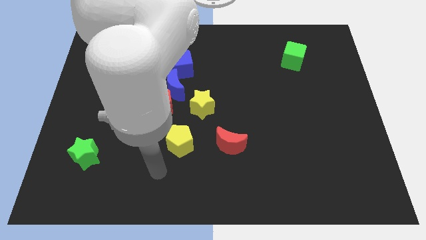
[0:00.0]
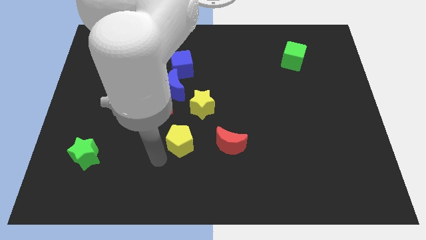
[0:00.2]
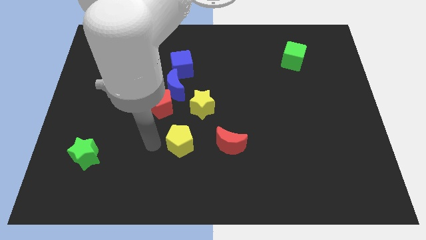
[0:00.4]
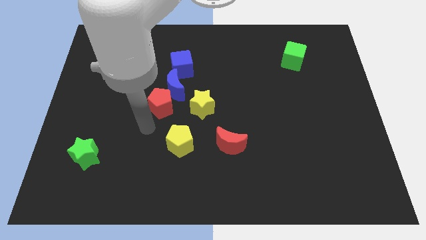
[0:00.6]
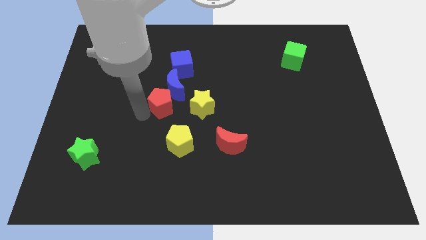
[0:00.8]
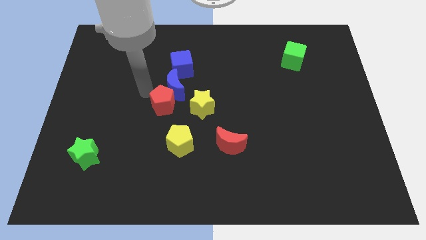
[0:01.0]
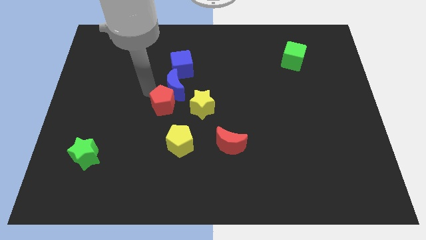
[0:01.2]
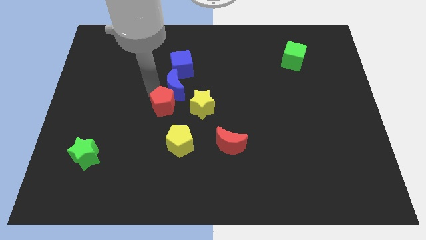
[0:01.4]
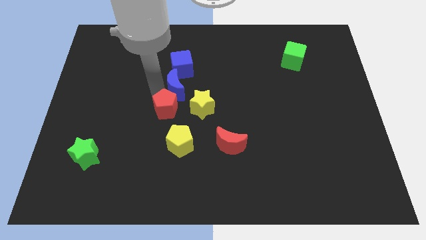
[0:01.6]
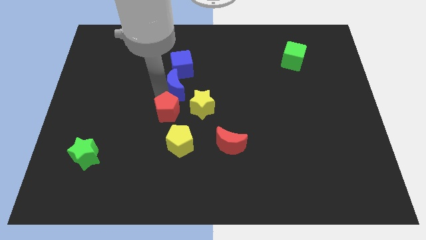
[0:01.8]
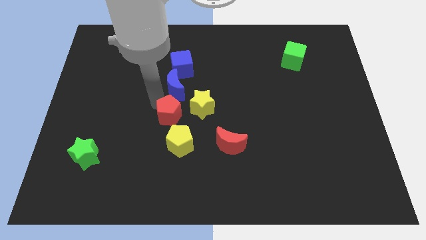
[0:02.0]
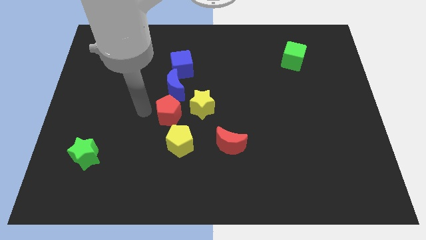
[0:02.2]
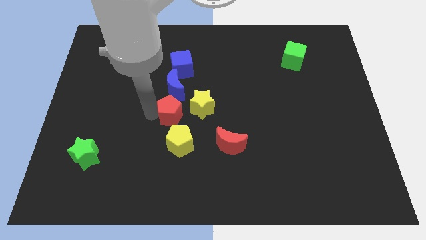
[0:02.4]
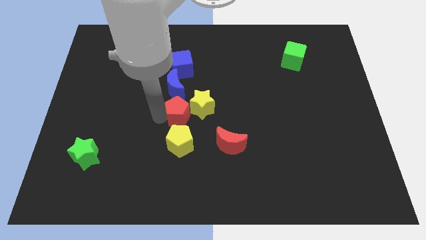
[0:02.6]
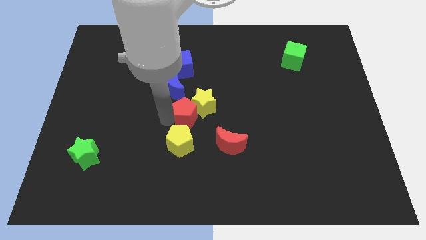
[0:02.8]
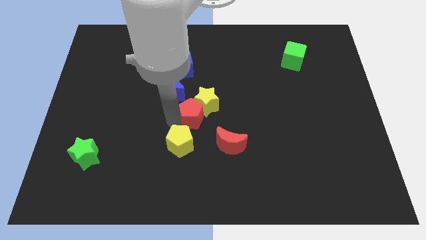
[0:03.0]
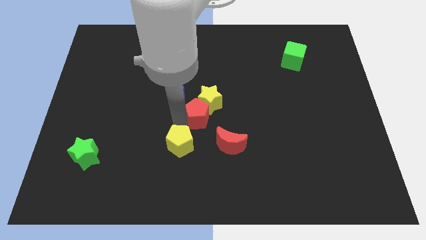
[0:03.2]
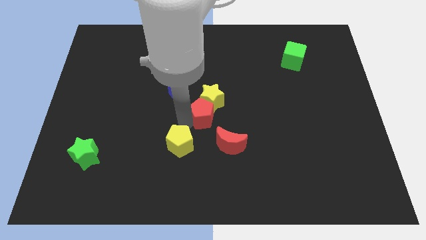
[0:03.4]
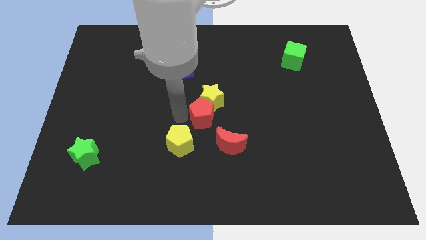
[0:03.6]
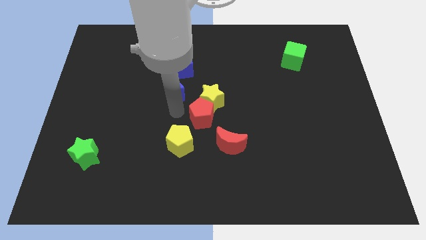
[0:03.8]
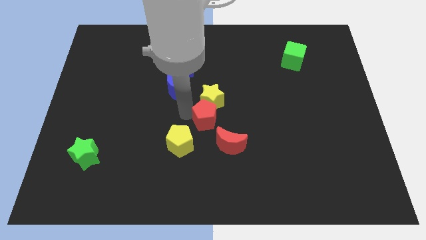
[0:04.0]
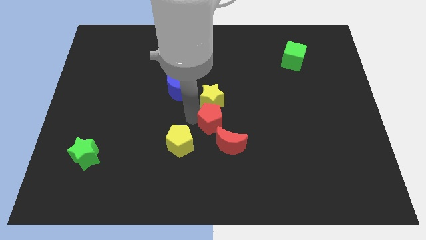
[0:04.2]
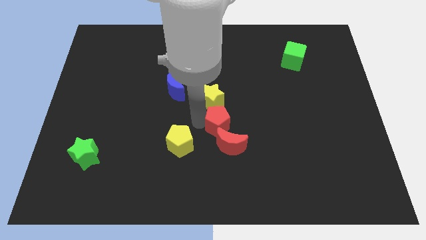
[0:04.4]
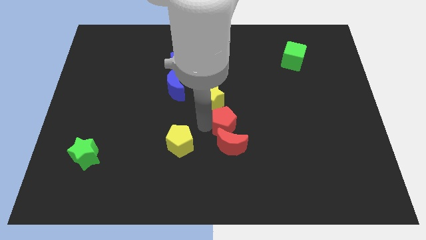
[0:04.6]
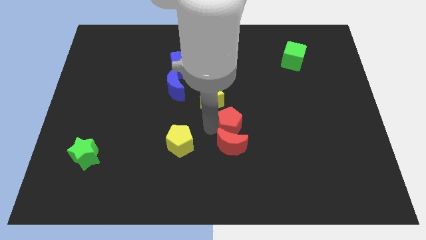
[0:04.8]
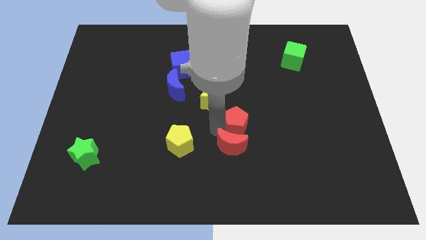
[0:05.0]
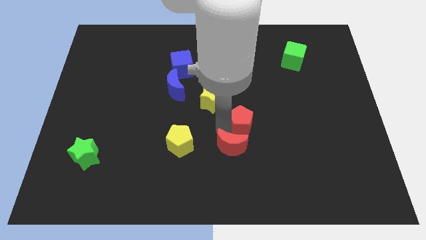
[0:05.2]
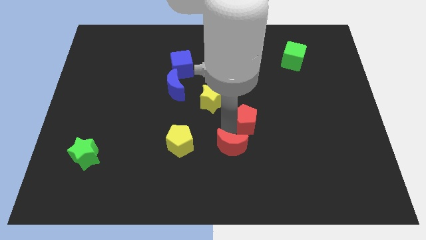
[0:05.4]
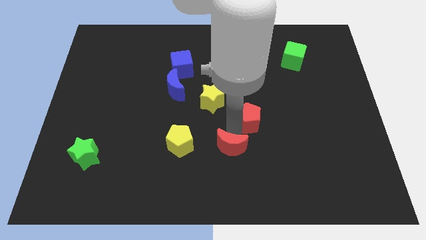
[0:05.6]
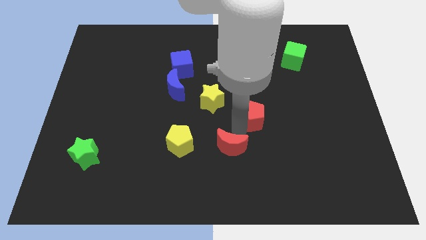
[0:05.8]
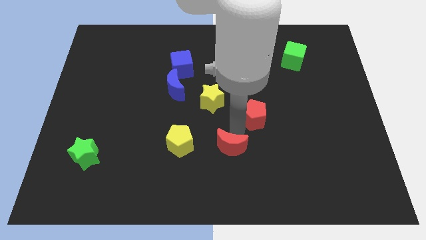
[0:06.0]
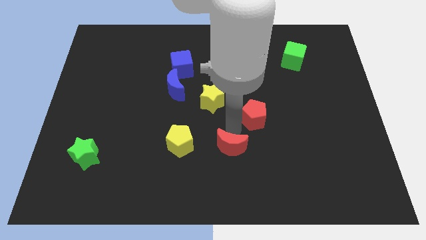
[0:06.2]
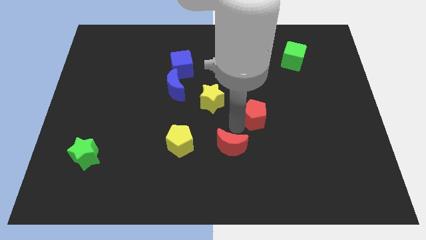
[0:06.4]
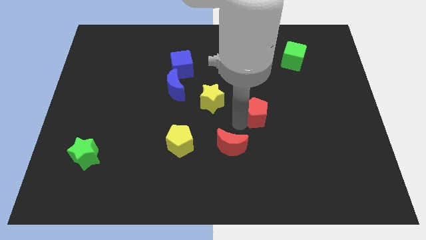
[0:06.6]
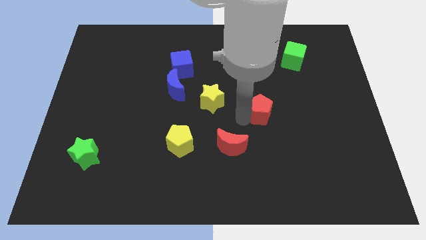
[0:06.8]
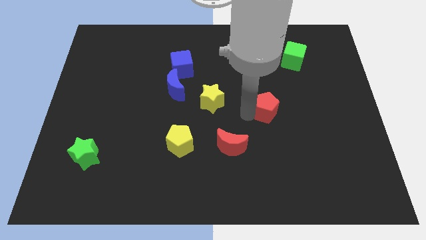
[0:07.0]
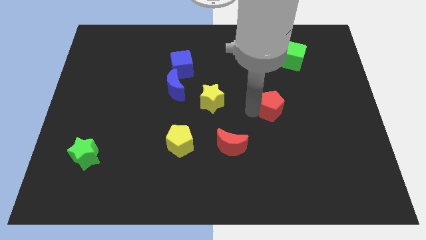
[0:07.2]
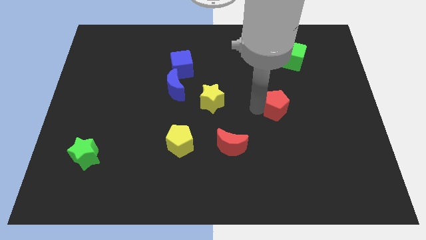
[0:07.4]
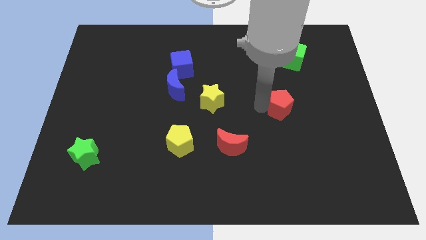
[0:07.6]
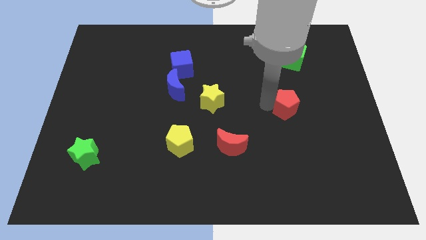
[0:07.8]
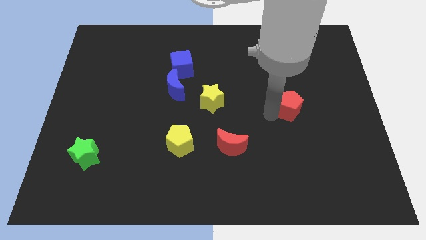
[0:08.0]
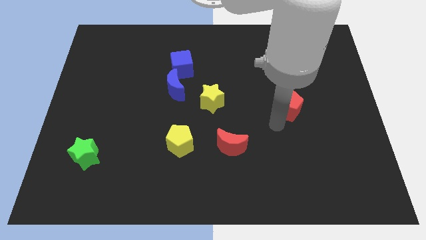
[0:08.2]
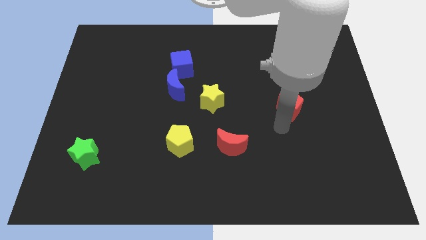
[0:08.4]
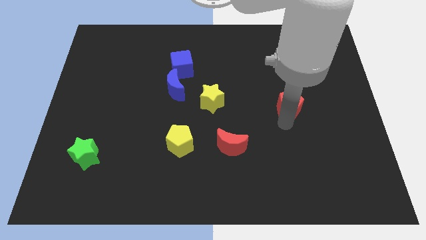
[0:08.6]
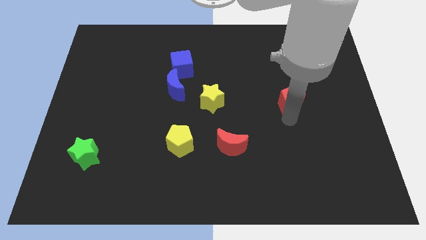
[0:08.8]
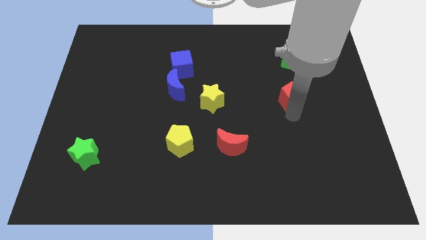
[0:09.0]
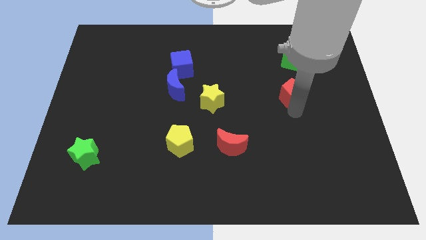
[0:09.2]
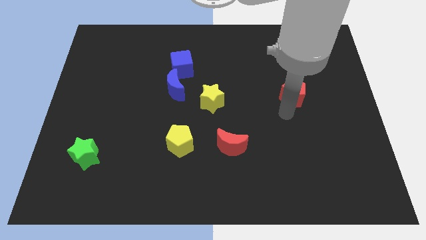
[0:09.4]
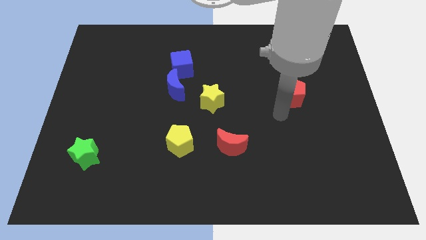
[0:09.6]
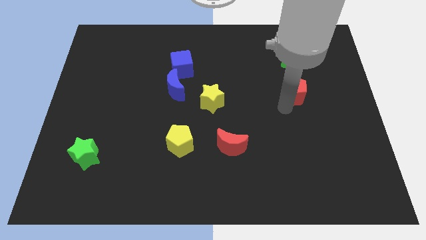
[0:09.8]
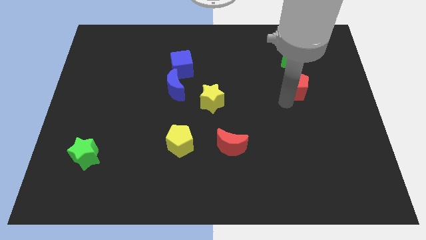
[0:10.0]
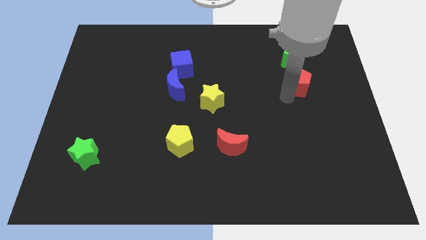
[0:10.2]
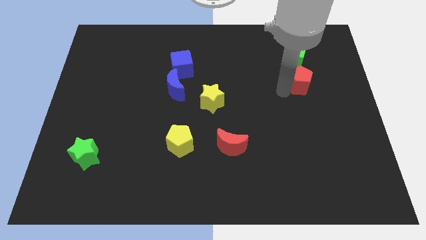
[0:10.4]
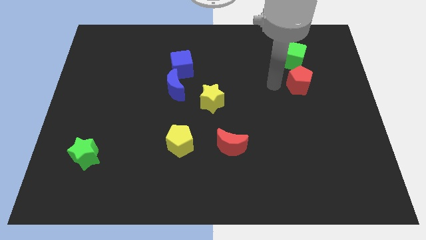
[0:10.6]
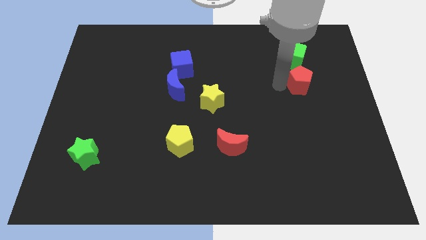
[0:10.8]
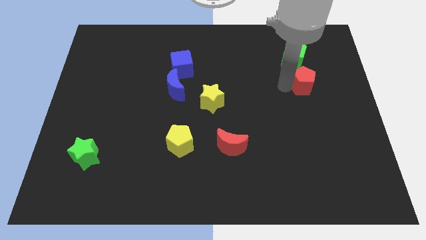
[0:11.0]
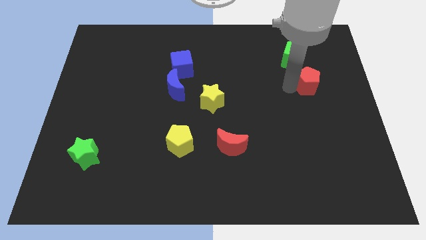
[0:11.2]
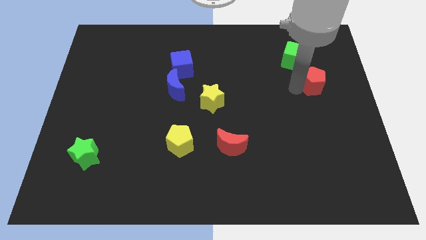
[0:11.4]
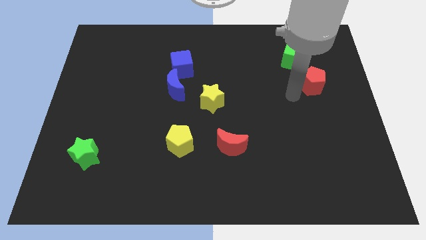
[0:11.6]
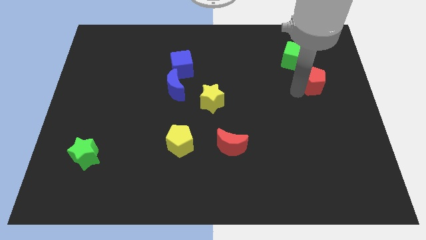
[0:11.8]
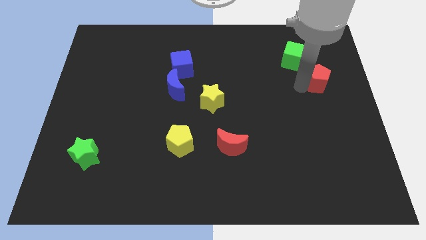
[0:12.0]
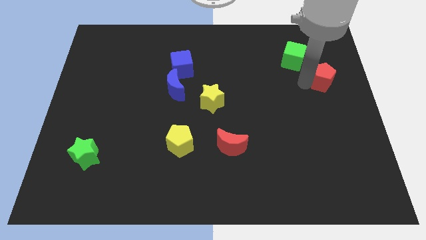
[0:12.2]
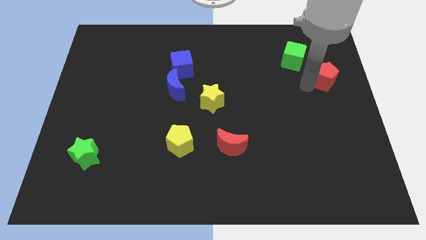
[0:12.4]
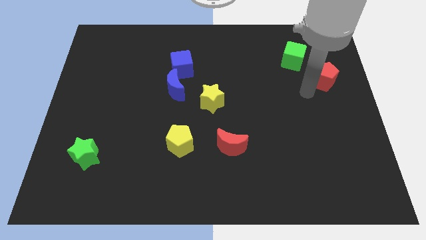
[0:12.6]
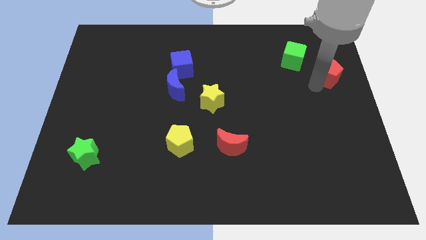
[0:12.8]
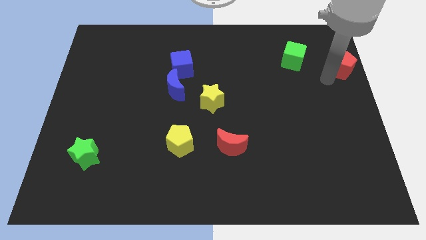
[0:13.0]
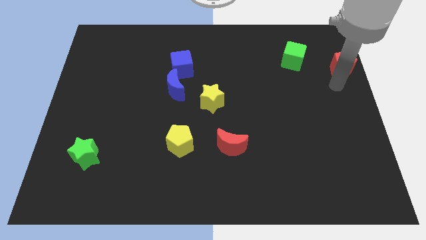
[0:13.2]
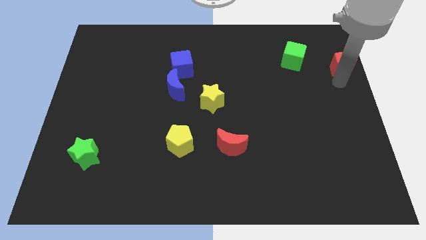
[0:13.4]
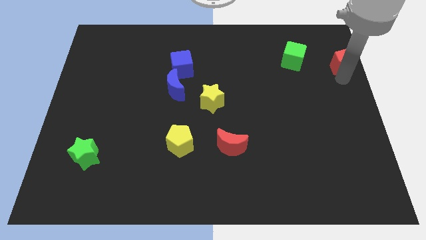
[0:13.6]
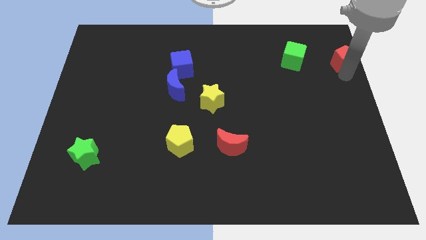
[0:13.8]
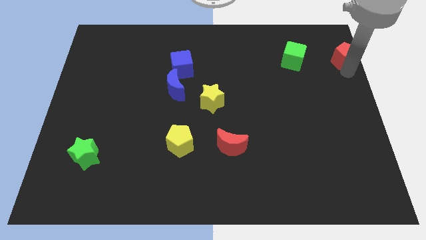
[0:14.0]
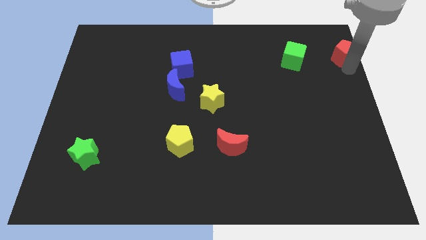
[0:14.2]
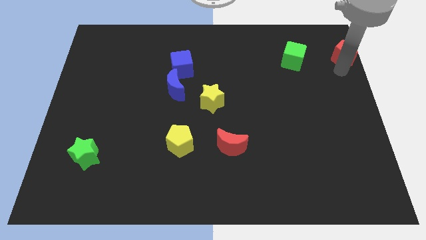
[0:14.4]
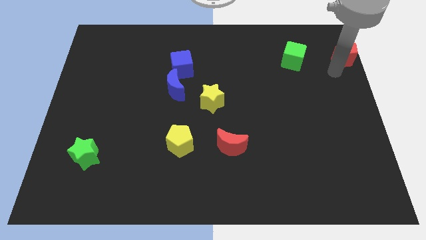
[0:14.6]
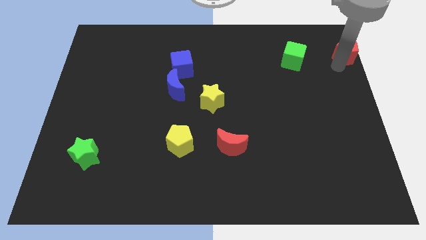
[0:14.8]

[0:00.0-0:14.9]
push the red pentagon to the top right of the board

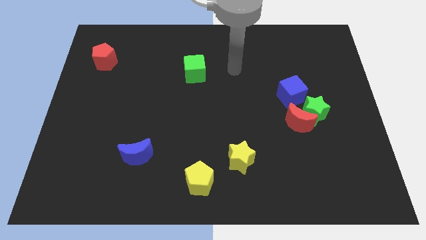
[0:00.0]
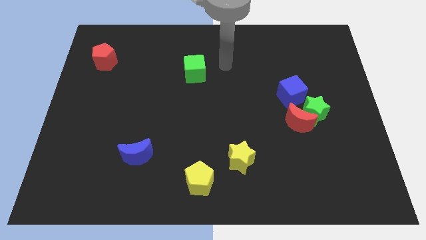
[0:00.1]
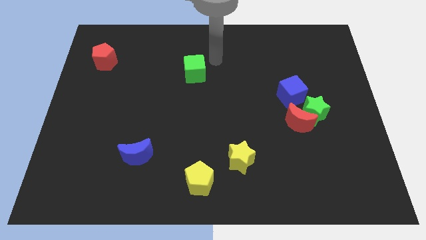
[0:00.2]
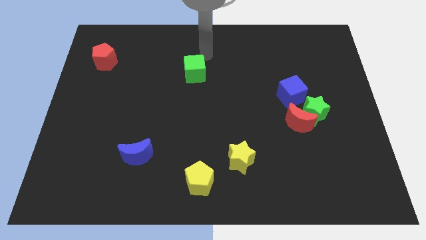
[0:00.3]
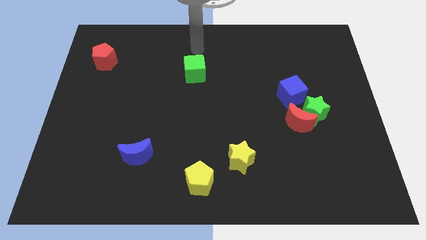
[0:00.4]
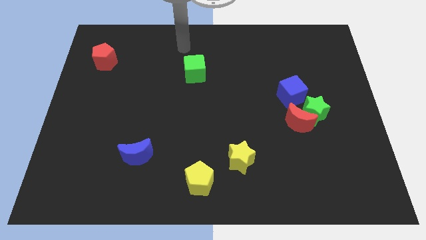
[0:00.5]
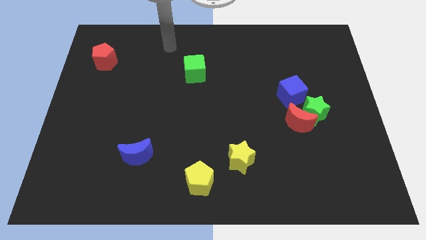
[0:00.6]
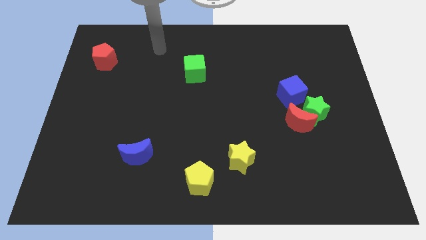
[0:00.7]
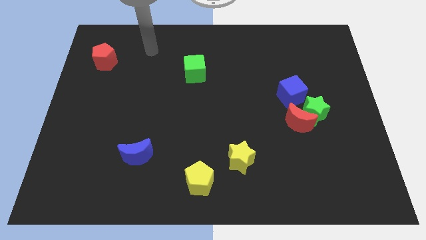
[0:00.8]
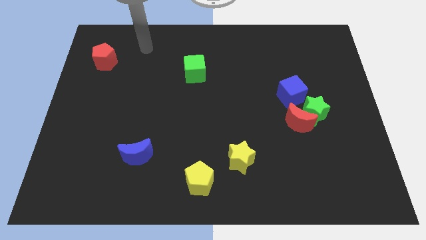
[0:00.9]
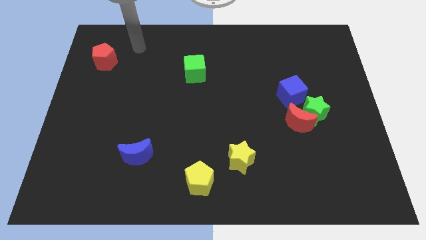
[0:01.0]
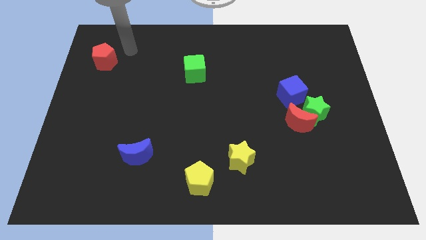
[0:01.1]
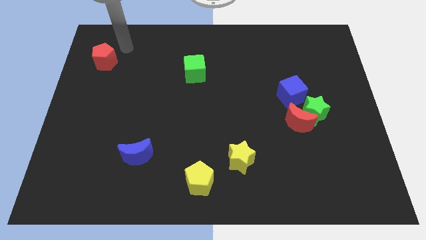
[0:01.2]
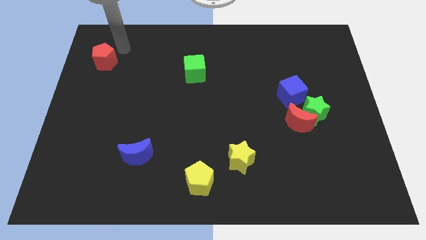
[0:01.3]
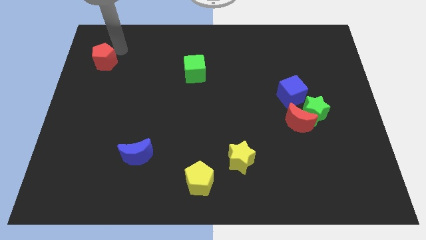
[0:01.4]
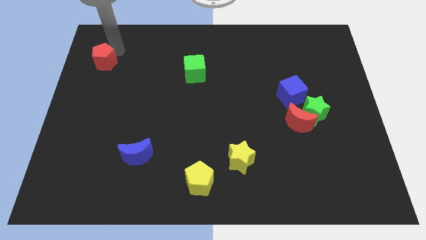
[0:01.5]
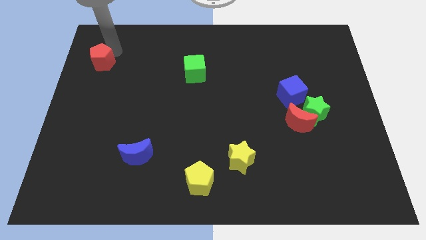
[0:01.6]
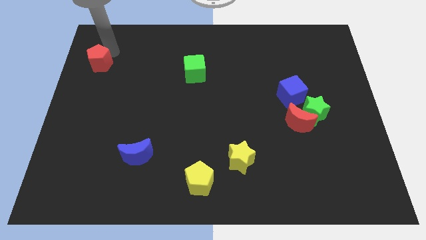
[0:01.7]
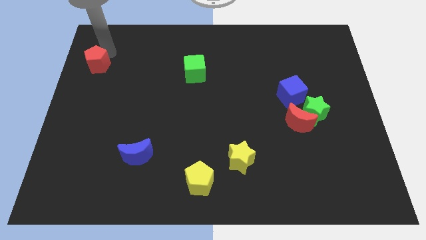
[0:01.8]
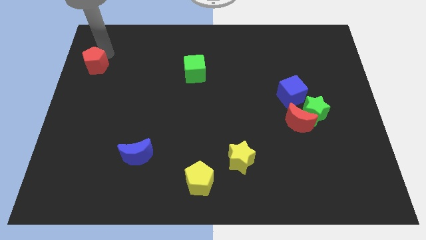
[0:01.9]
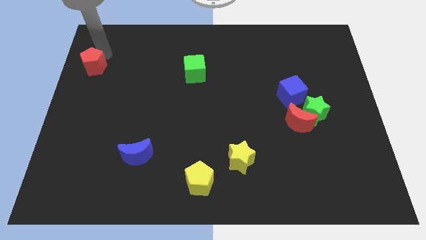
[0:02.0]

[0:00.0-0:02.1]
move the red pentagon to the center left
